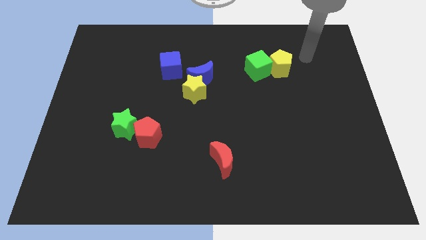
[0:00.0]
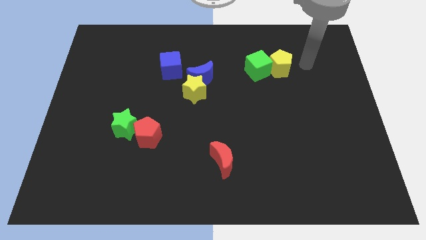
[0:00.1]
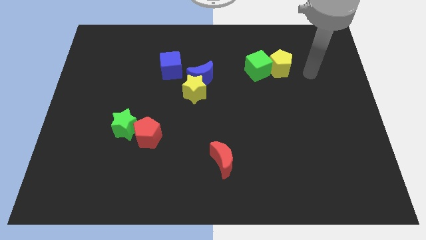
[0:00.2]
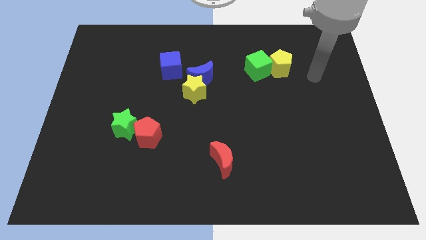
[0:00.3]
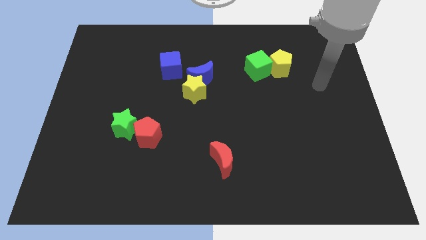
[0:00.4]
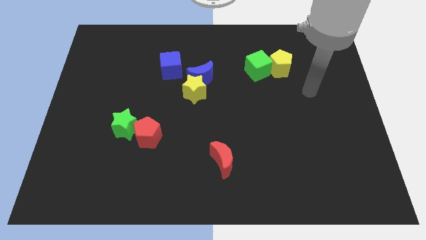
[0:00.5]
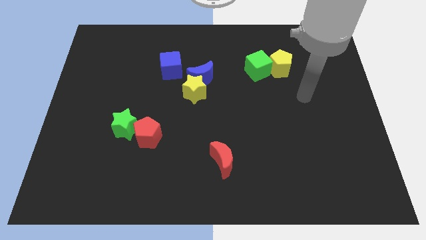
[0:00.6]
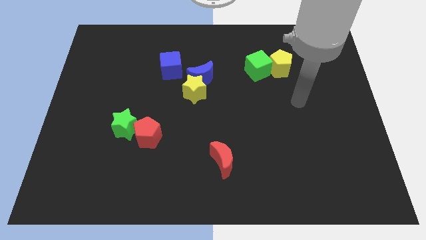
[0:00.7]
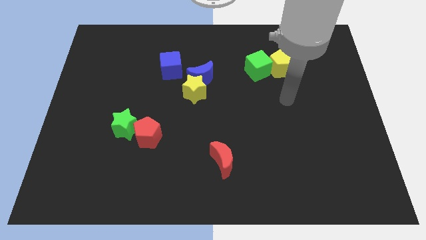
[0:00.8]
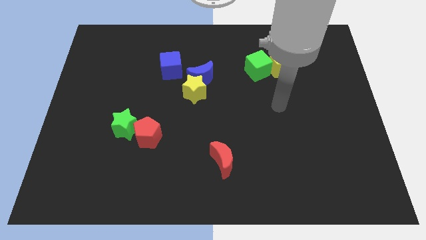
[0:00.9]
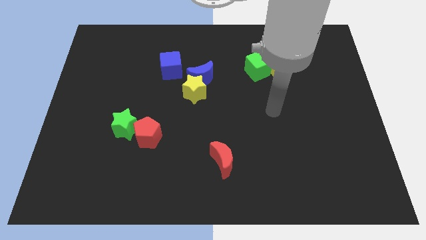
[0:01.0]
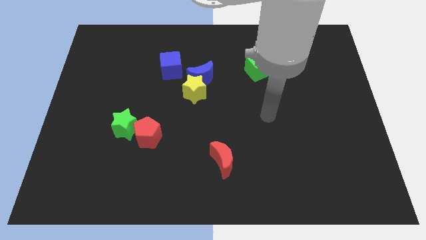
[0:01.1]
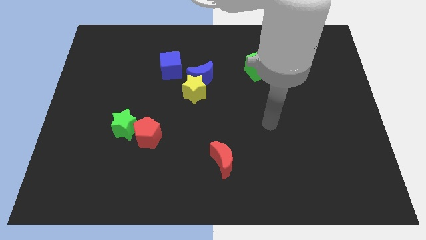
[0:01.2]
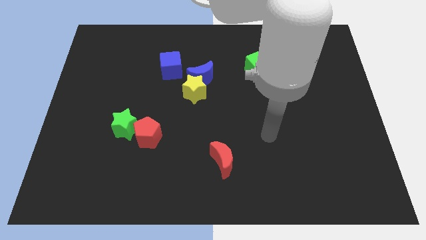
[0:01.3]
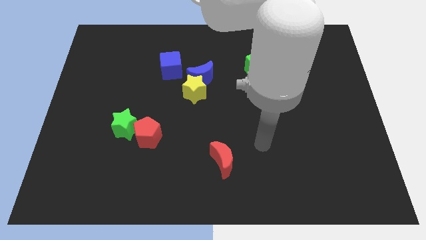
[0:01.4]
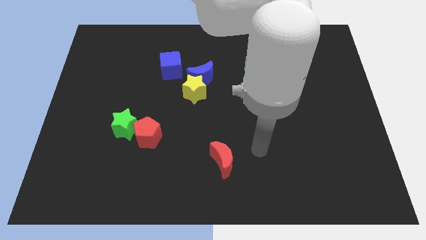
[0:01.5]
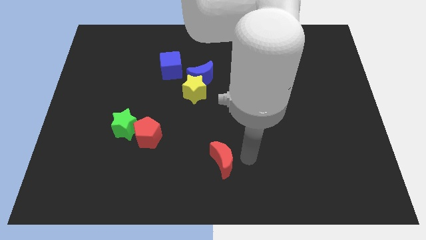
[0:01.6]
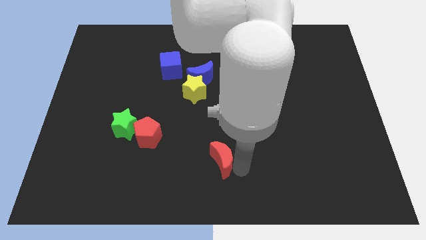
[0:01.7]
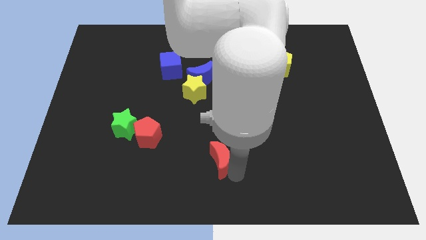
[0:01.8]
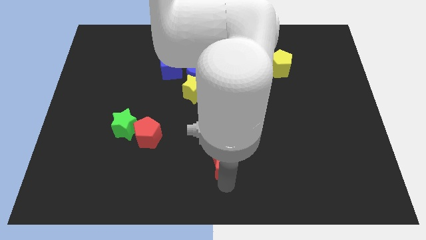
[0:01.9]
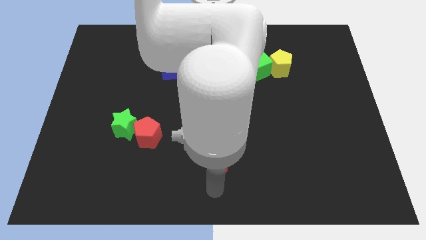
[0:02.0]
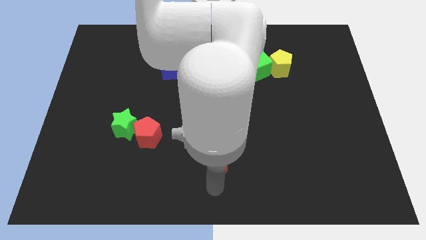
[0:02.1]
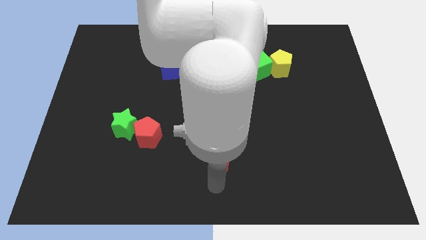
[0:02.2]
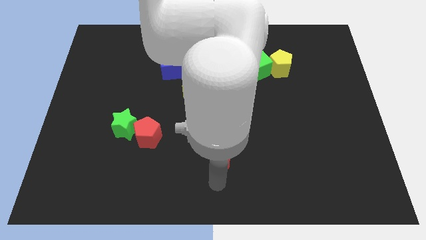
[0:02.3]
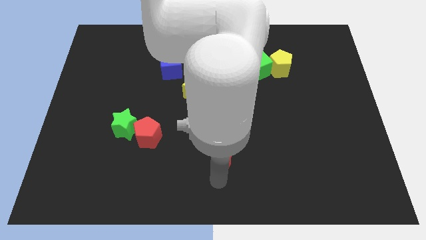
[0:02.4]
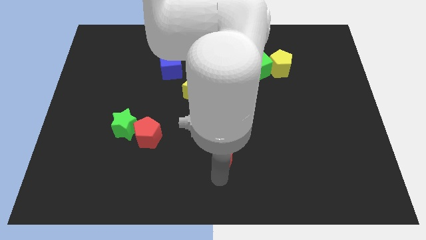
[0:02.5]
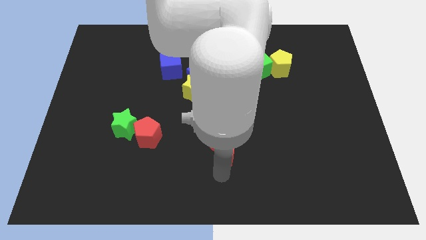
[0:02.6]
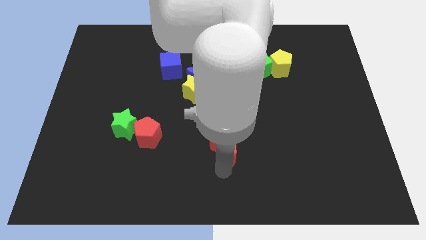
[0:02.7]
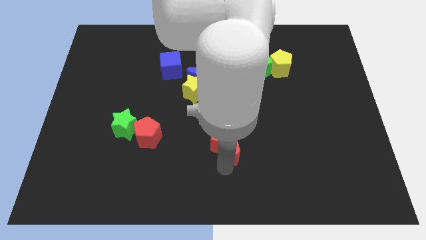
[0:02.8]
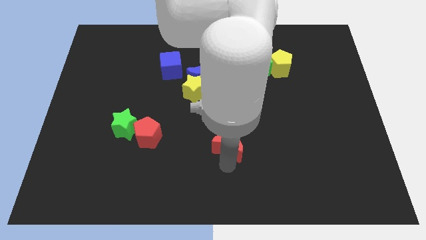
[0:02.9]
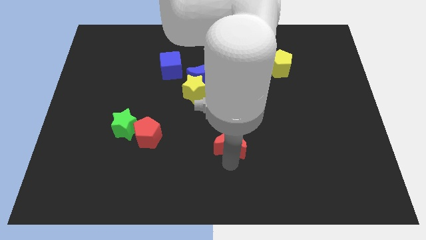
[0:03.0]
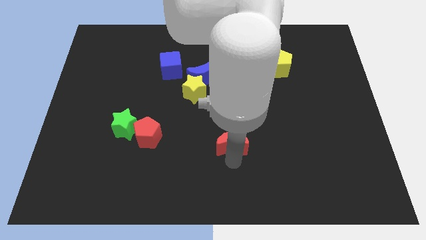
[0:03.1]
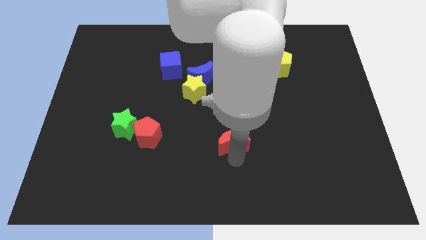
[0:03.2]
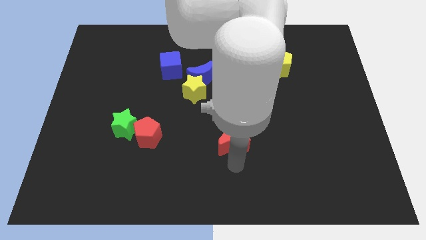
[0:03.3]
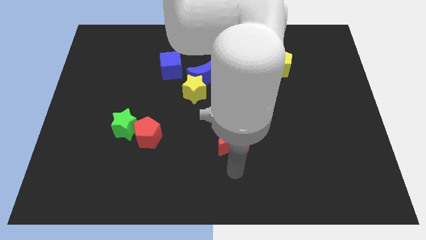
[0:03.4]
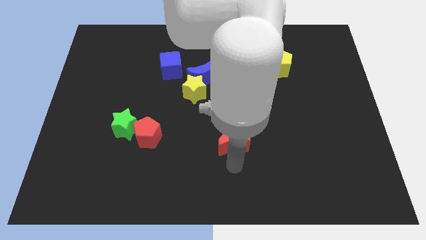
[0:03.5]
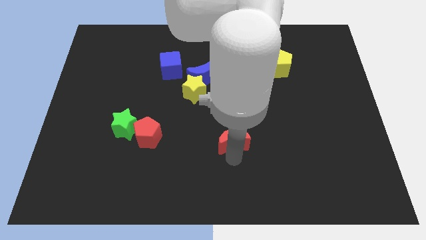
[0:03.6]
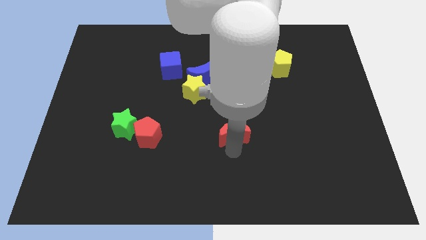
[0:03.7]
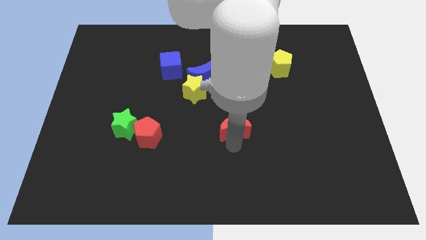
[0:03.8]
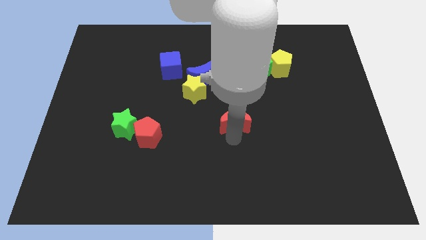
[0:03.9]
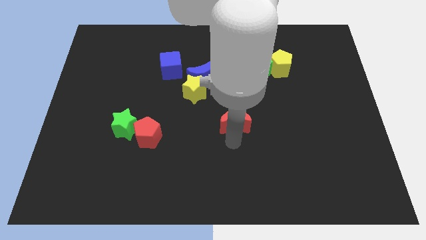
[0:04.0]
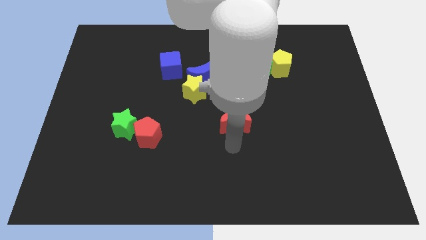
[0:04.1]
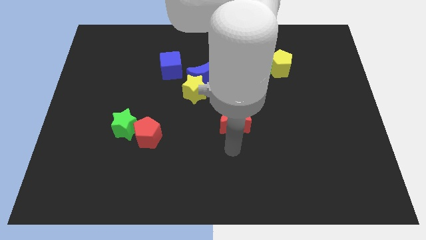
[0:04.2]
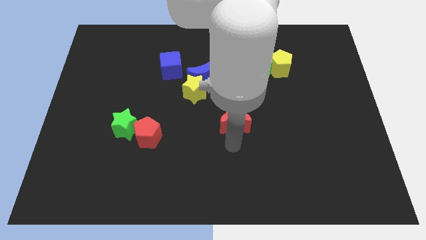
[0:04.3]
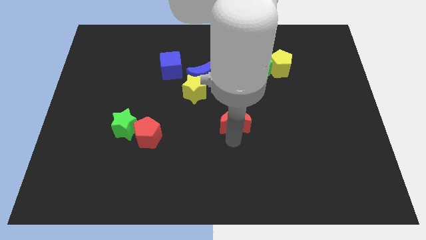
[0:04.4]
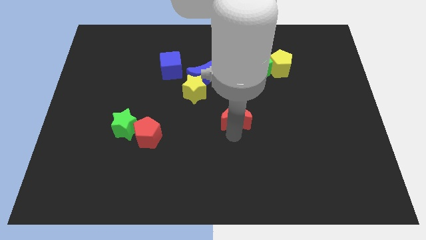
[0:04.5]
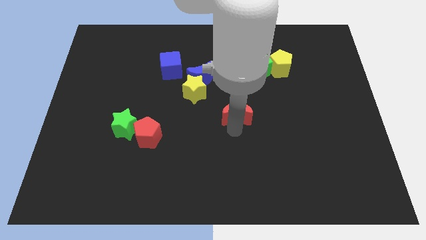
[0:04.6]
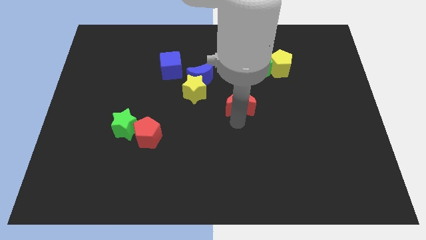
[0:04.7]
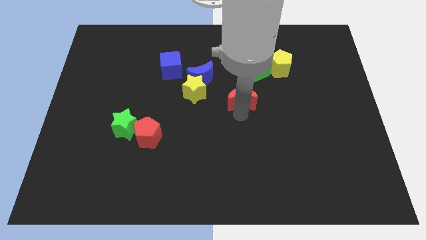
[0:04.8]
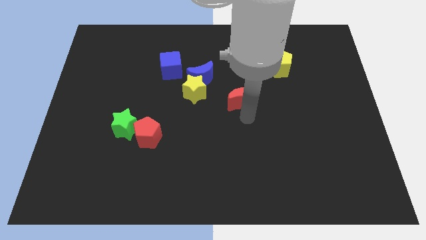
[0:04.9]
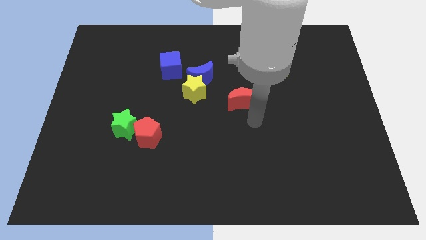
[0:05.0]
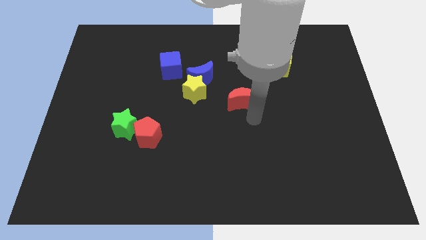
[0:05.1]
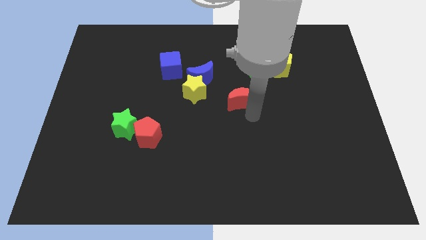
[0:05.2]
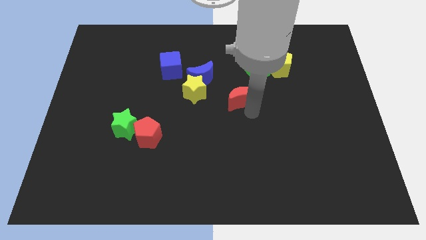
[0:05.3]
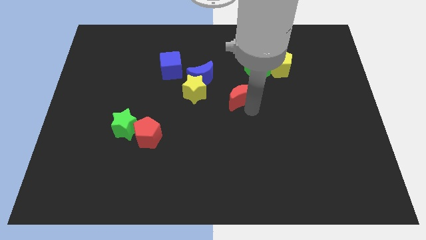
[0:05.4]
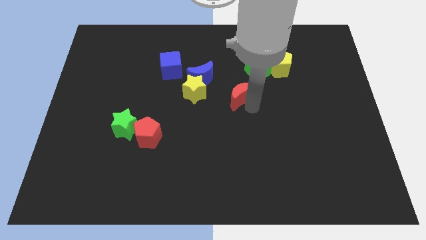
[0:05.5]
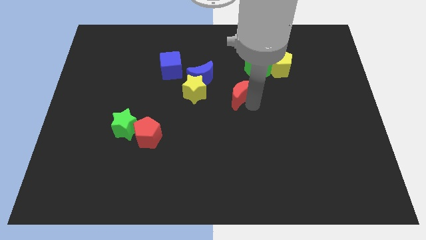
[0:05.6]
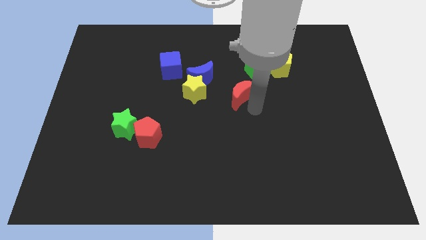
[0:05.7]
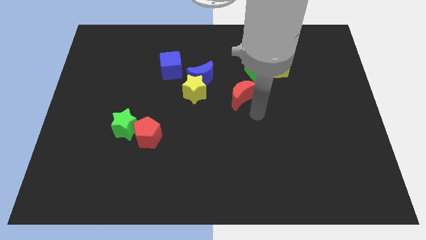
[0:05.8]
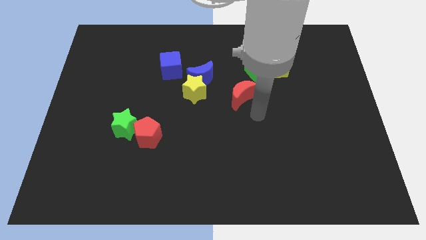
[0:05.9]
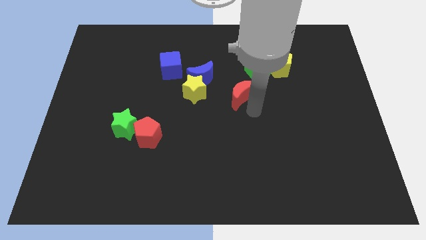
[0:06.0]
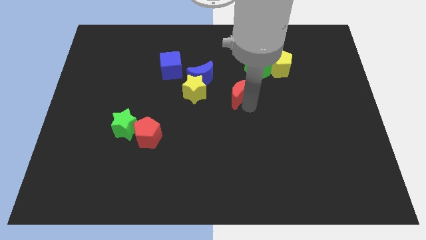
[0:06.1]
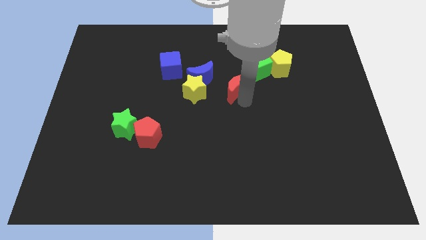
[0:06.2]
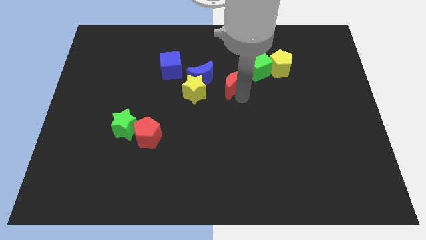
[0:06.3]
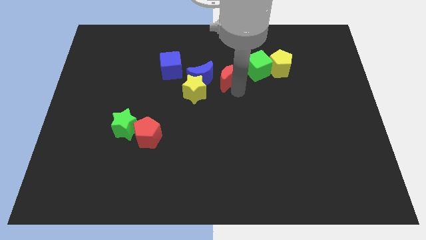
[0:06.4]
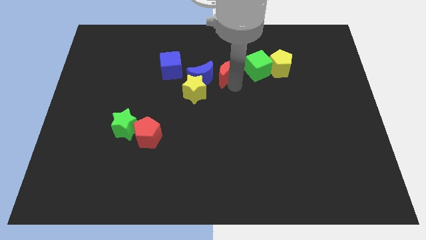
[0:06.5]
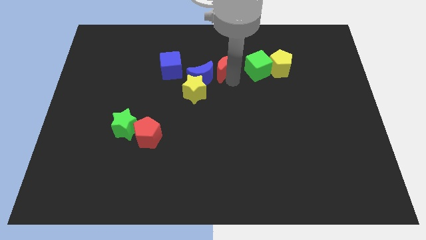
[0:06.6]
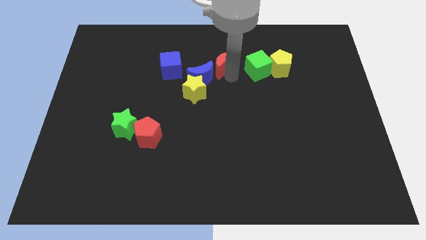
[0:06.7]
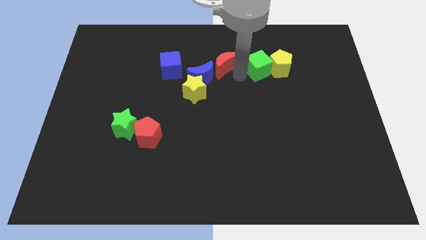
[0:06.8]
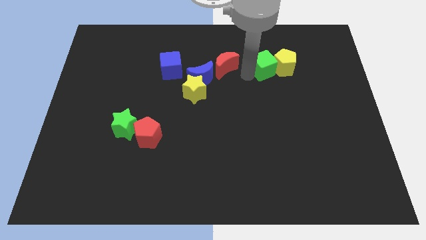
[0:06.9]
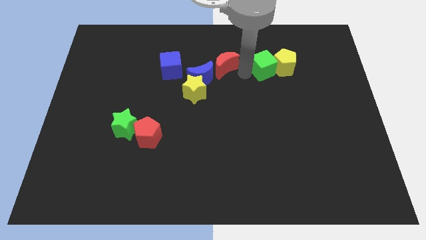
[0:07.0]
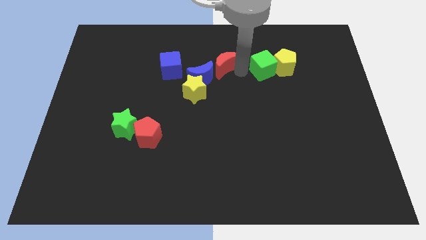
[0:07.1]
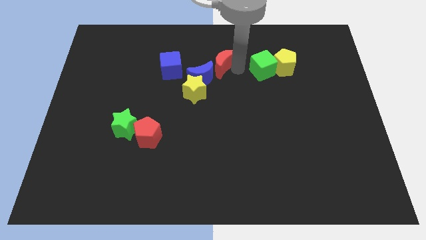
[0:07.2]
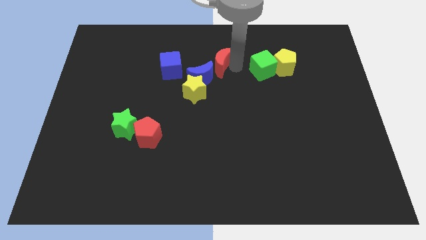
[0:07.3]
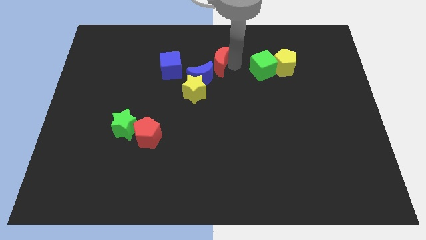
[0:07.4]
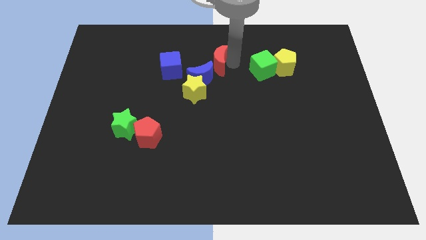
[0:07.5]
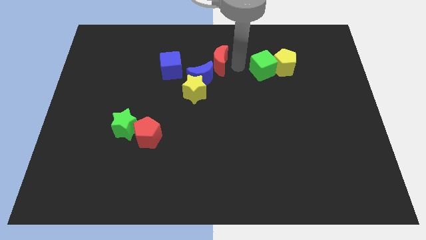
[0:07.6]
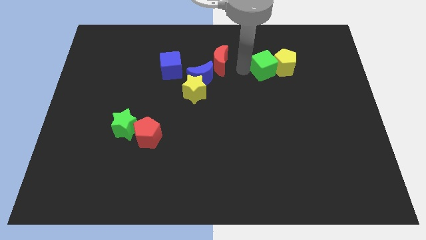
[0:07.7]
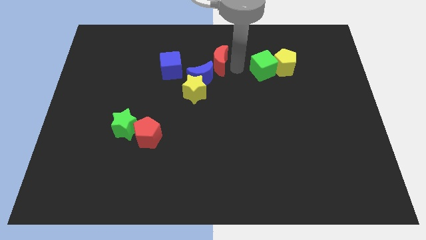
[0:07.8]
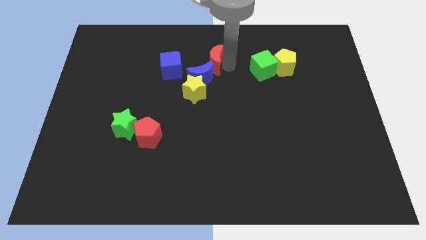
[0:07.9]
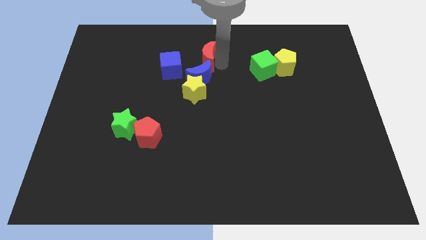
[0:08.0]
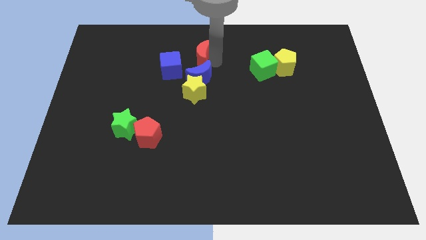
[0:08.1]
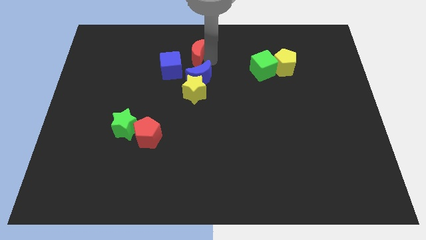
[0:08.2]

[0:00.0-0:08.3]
put the red moon diagonally up and to the left of the blue moon
